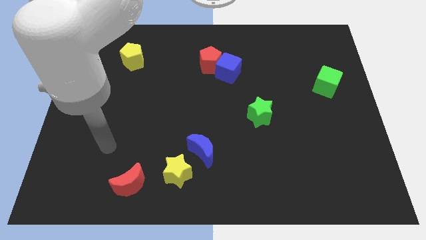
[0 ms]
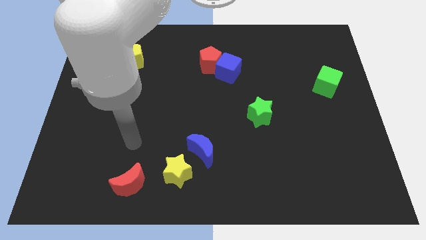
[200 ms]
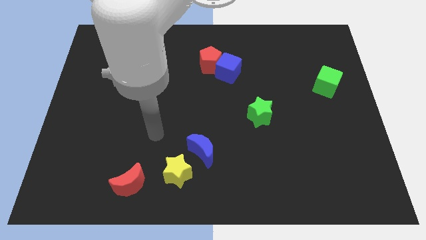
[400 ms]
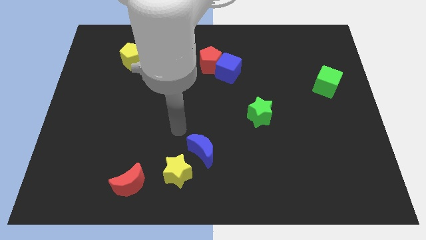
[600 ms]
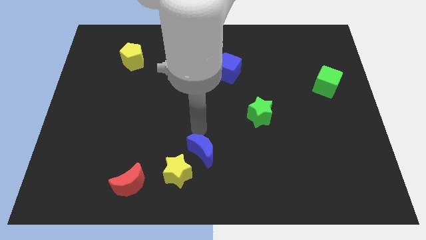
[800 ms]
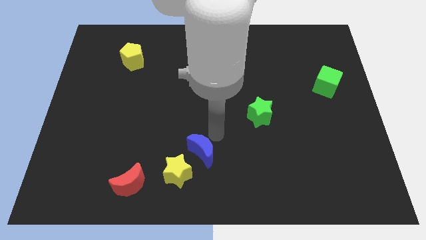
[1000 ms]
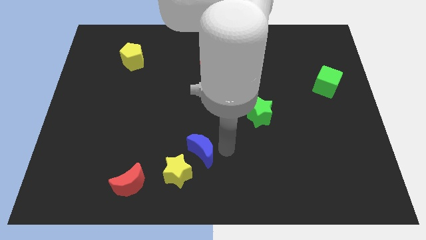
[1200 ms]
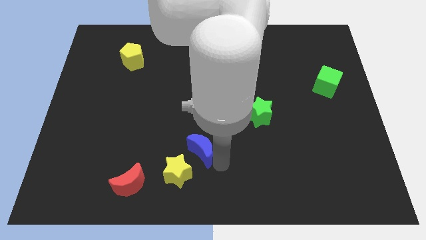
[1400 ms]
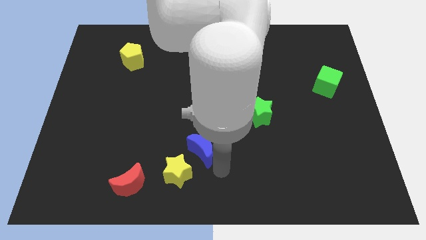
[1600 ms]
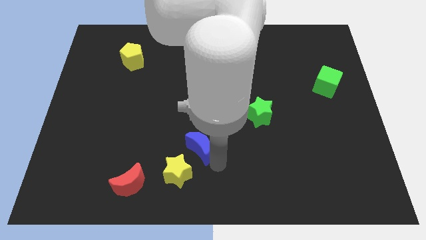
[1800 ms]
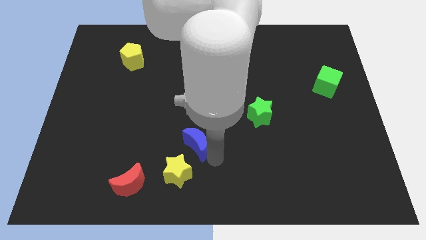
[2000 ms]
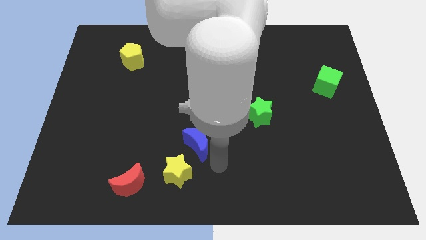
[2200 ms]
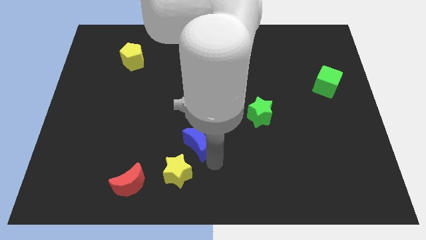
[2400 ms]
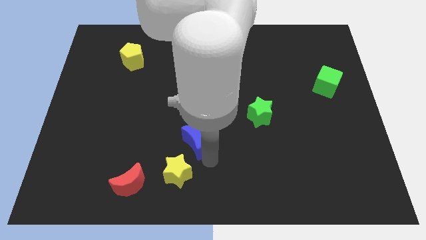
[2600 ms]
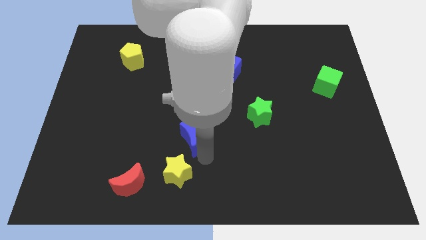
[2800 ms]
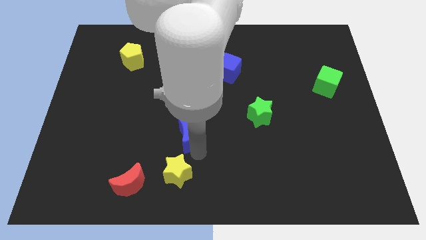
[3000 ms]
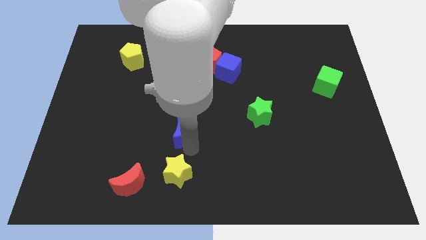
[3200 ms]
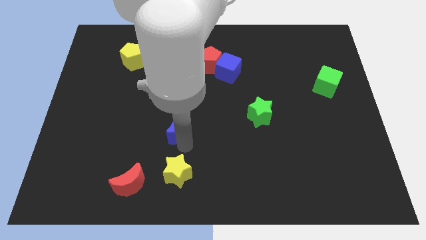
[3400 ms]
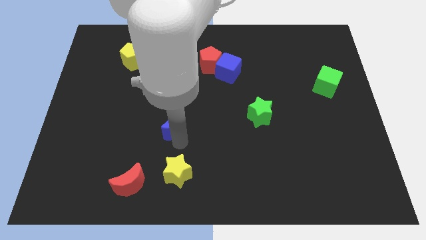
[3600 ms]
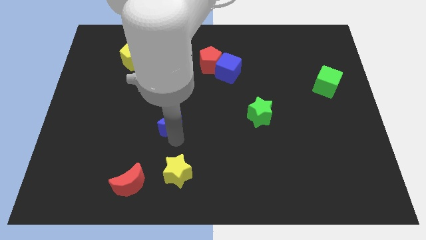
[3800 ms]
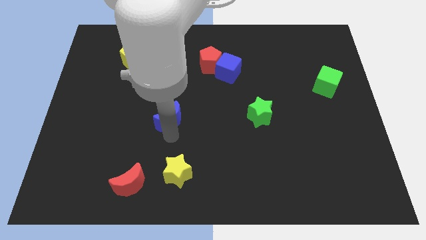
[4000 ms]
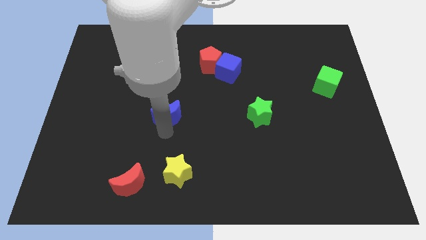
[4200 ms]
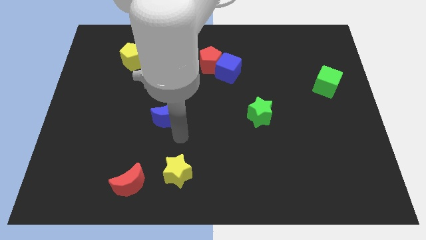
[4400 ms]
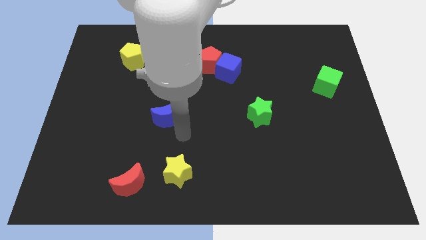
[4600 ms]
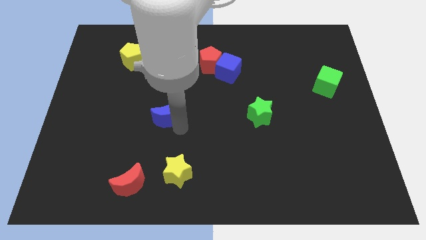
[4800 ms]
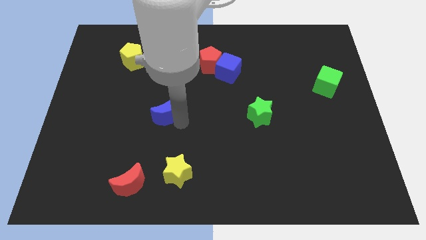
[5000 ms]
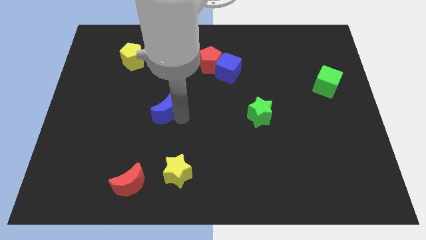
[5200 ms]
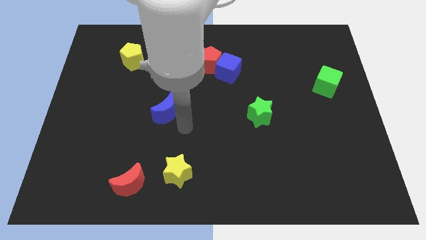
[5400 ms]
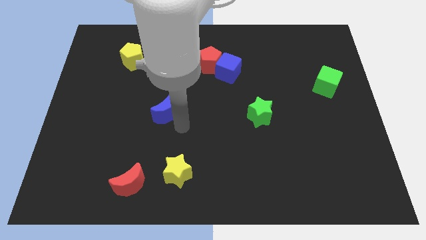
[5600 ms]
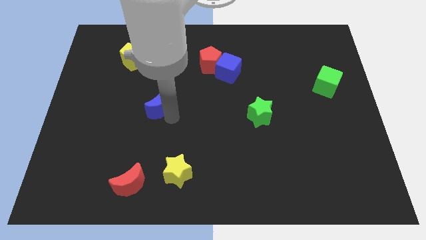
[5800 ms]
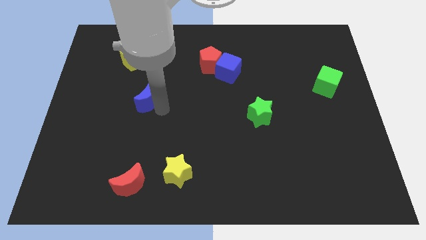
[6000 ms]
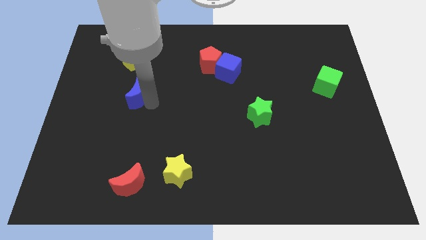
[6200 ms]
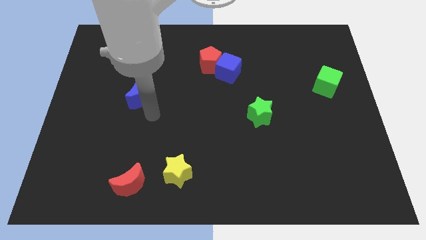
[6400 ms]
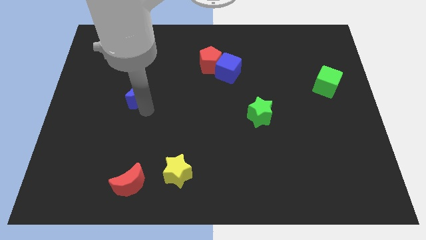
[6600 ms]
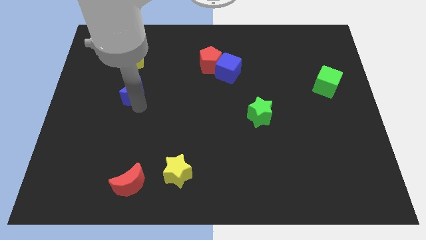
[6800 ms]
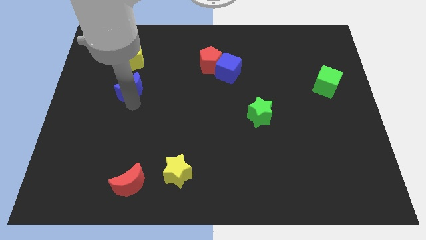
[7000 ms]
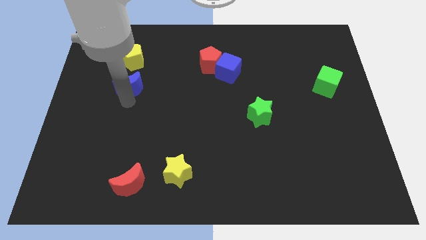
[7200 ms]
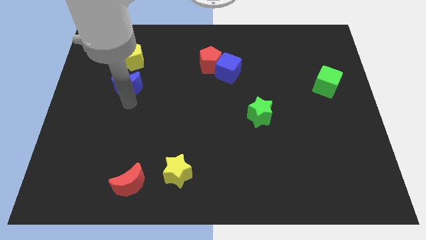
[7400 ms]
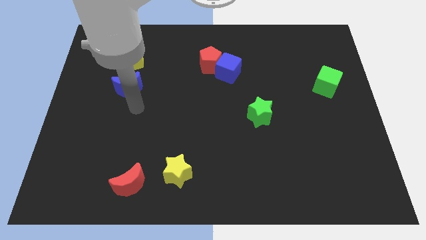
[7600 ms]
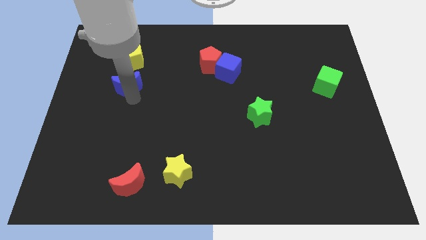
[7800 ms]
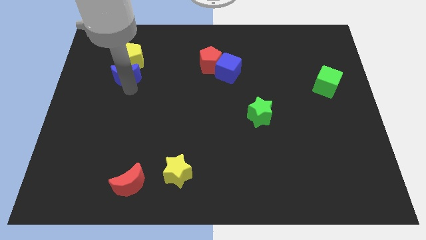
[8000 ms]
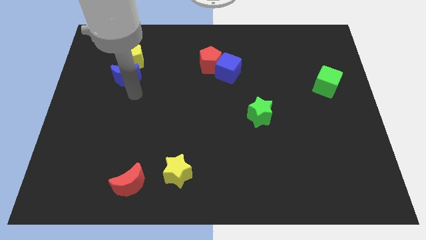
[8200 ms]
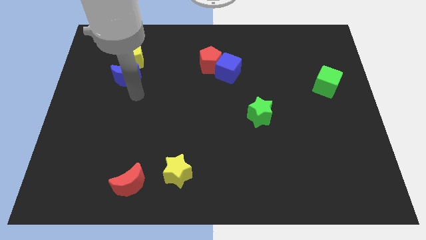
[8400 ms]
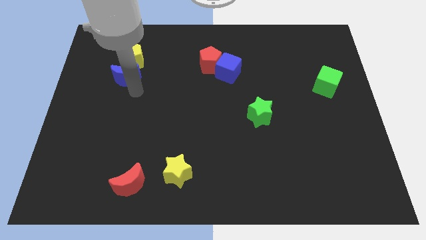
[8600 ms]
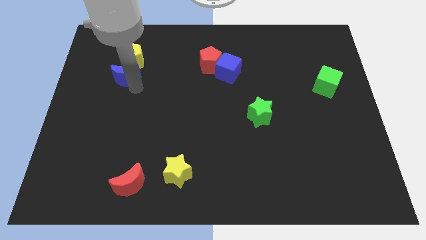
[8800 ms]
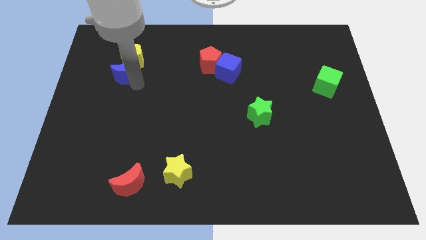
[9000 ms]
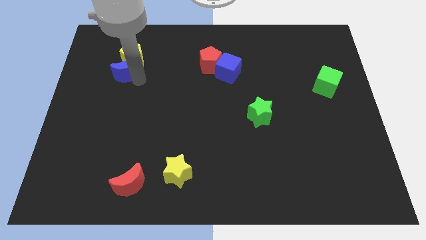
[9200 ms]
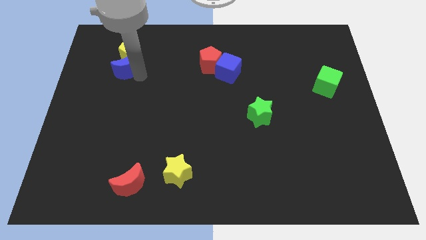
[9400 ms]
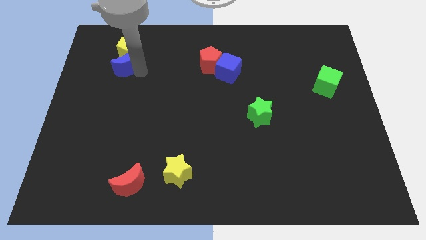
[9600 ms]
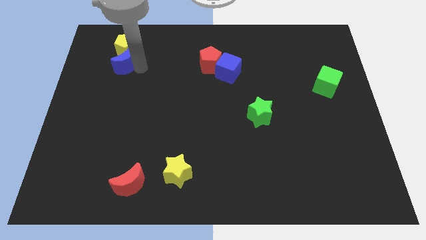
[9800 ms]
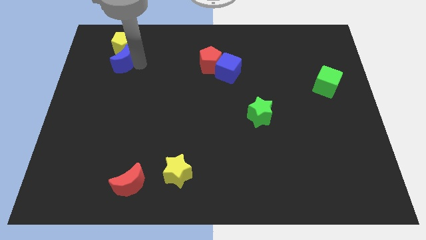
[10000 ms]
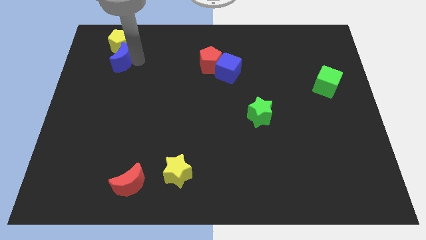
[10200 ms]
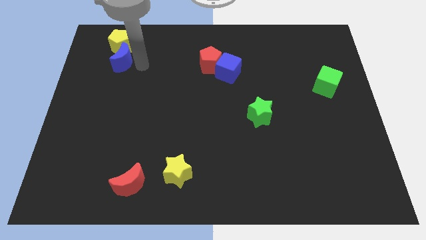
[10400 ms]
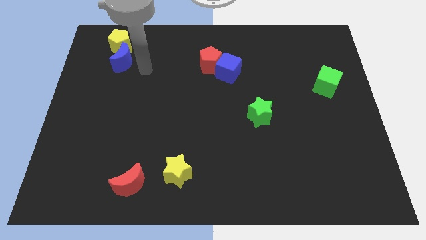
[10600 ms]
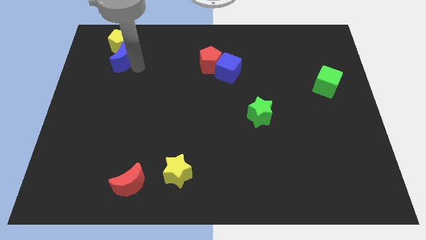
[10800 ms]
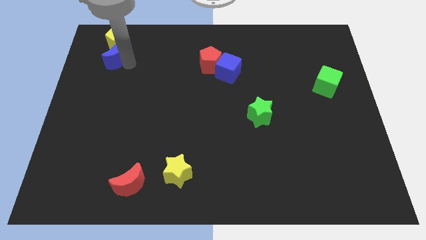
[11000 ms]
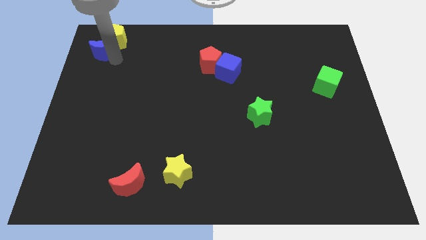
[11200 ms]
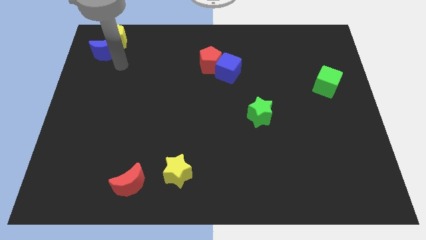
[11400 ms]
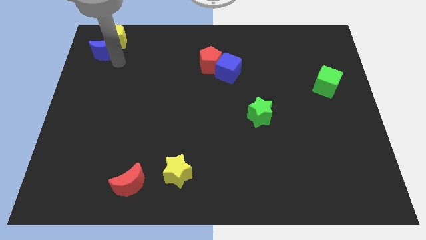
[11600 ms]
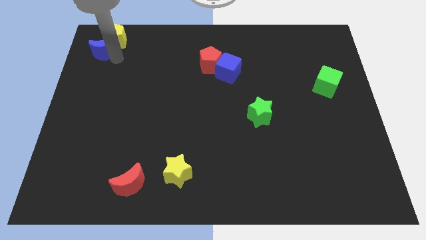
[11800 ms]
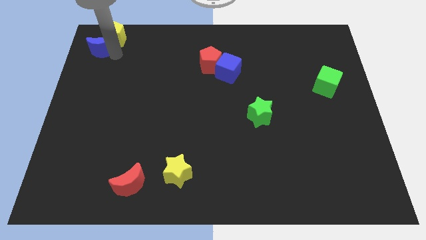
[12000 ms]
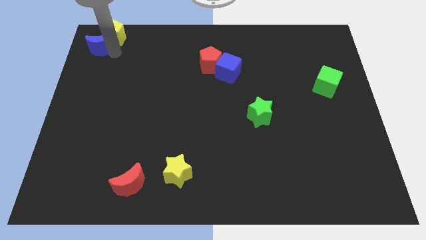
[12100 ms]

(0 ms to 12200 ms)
slide the blue moon to the top left
